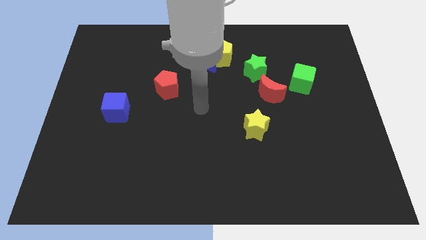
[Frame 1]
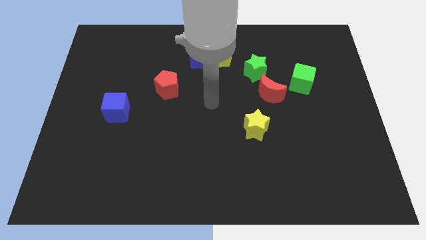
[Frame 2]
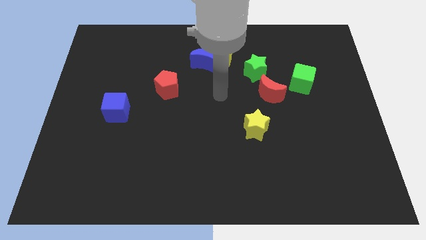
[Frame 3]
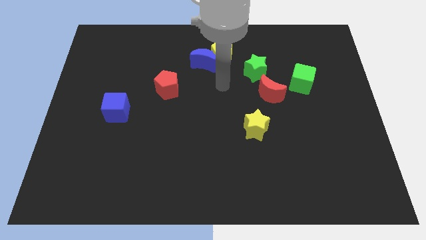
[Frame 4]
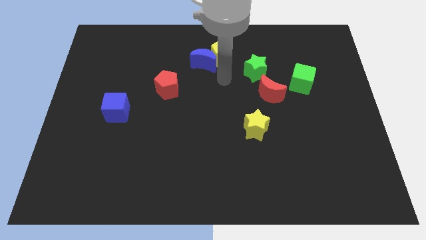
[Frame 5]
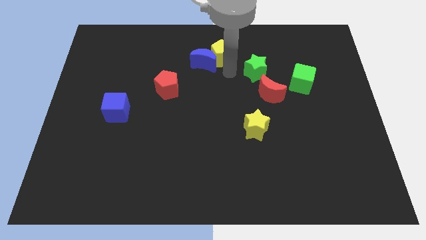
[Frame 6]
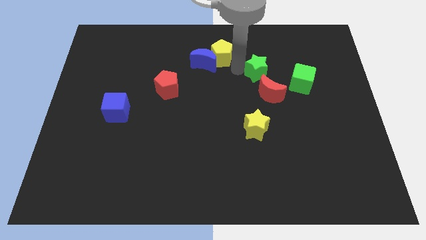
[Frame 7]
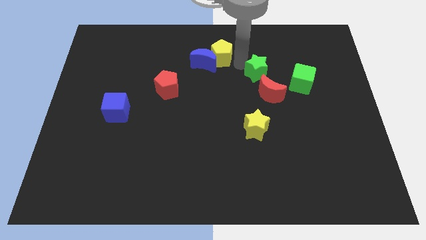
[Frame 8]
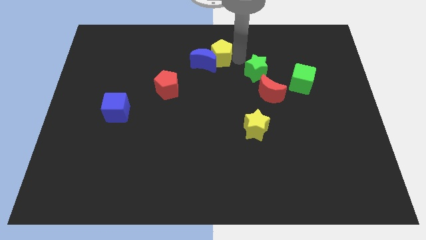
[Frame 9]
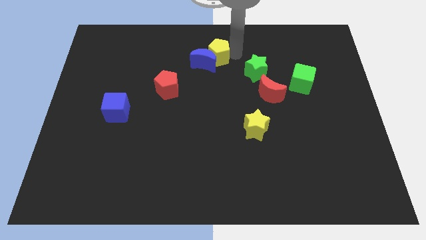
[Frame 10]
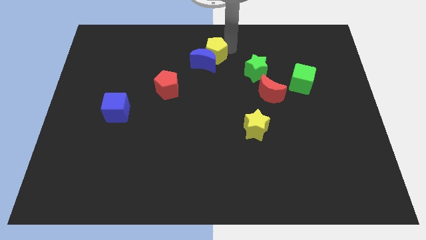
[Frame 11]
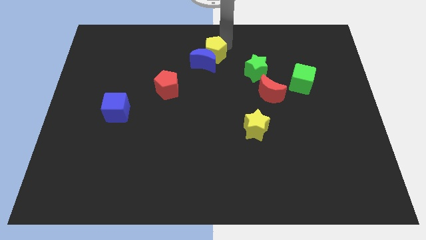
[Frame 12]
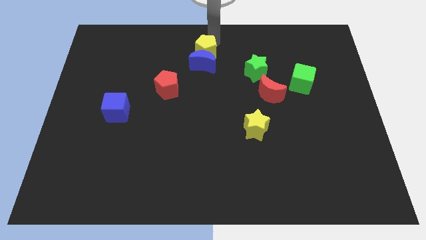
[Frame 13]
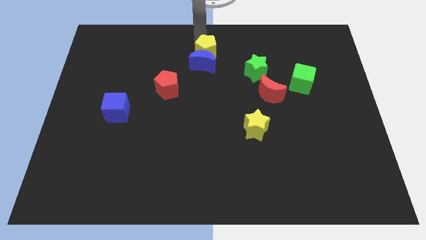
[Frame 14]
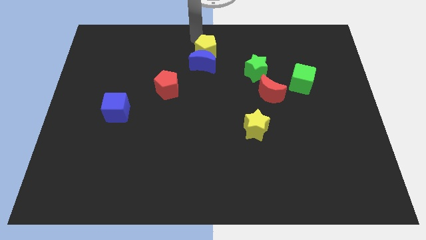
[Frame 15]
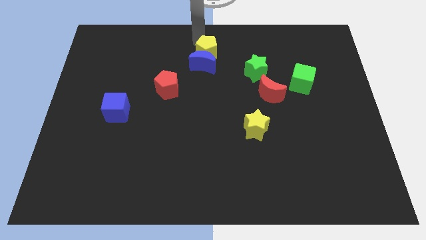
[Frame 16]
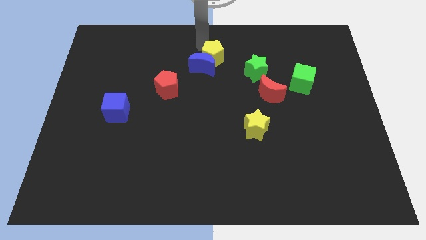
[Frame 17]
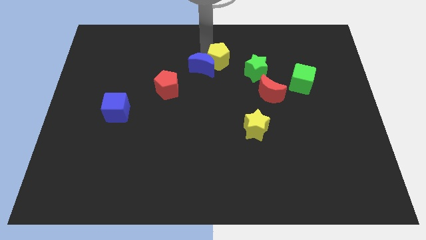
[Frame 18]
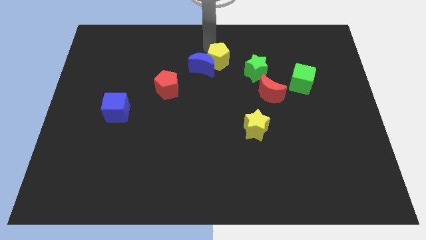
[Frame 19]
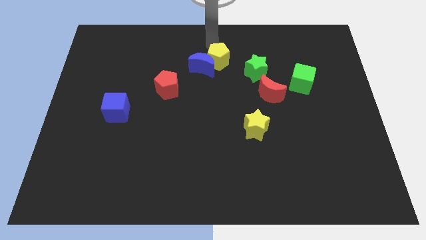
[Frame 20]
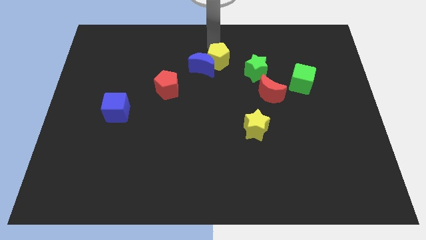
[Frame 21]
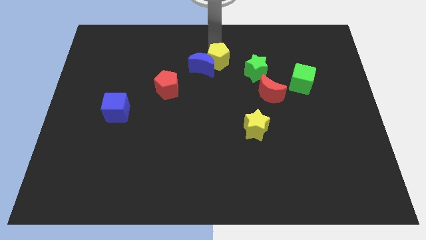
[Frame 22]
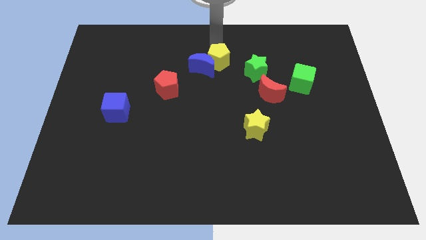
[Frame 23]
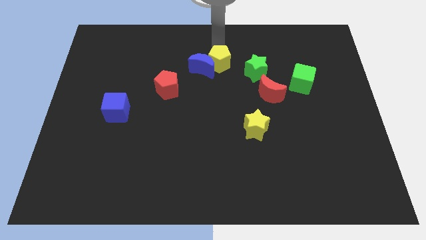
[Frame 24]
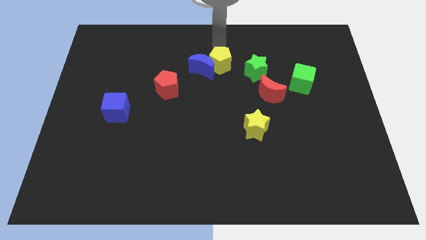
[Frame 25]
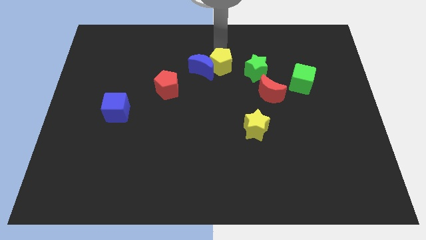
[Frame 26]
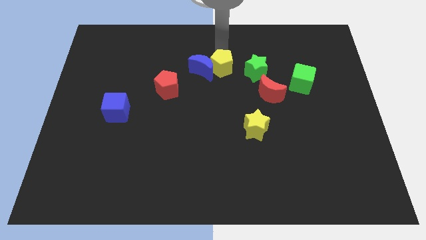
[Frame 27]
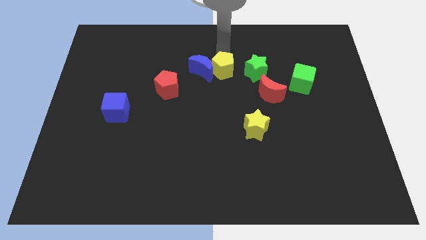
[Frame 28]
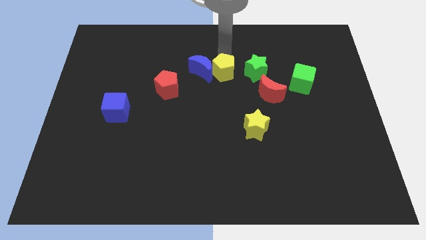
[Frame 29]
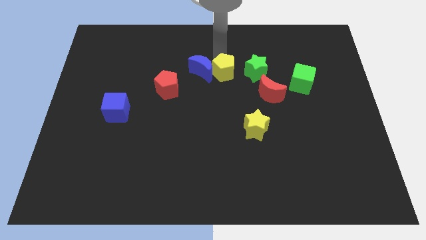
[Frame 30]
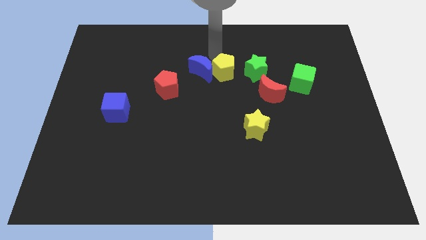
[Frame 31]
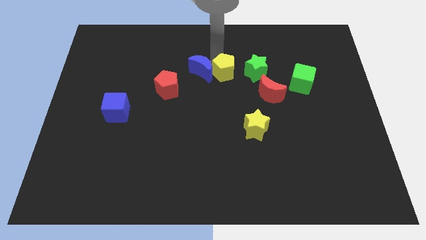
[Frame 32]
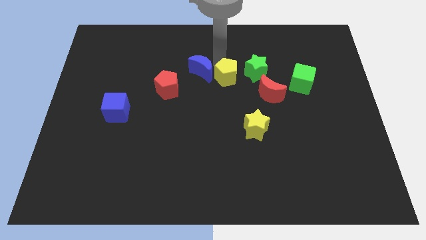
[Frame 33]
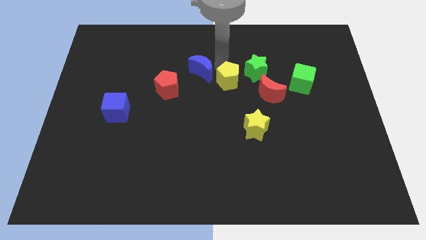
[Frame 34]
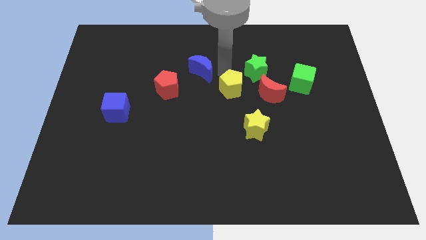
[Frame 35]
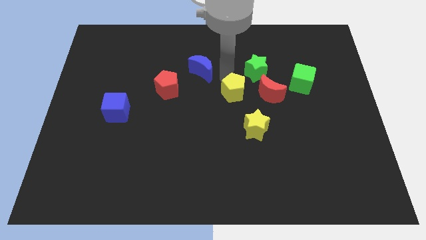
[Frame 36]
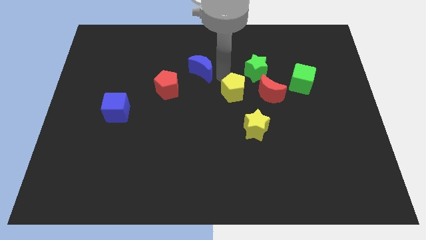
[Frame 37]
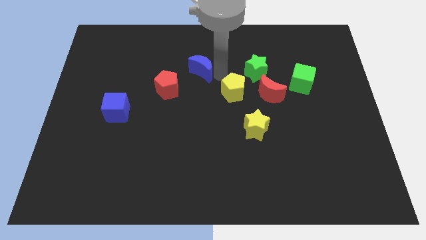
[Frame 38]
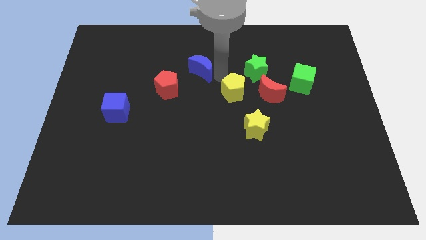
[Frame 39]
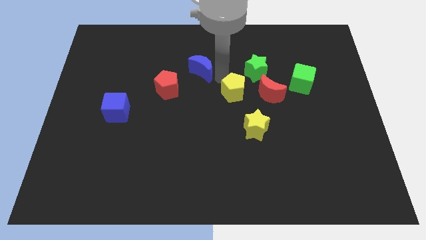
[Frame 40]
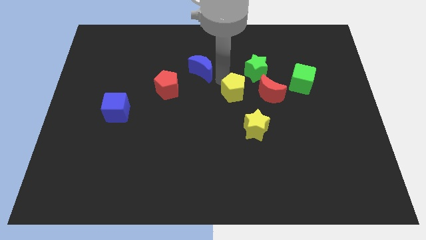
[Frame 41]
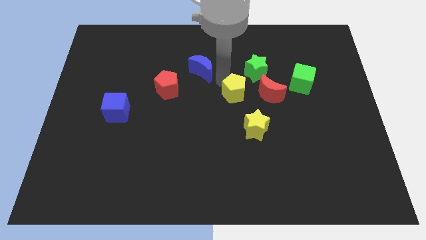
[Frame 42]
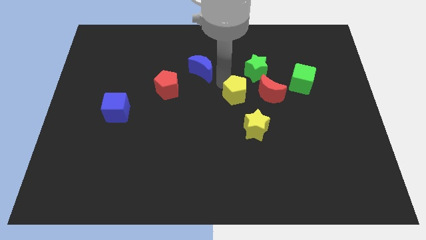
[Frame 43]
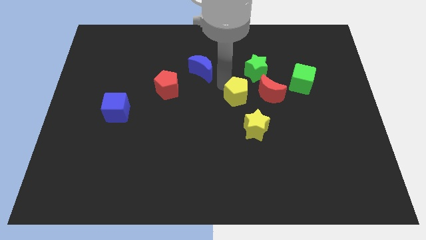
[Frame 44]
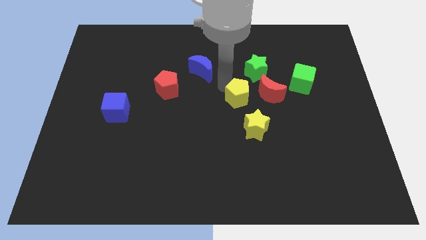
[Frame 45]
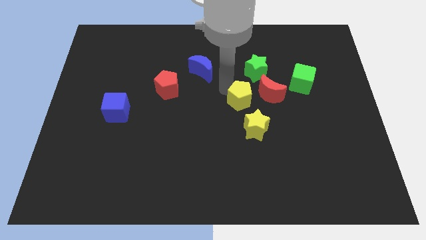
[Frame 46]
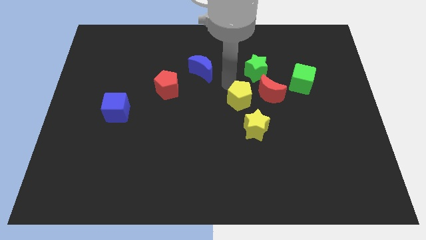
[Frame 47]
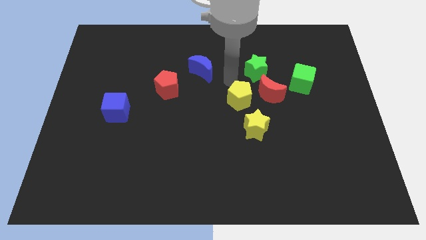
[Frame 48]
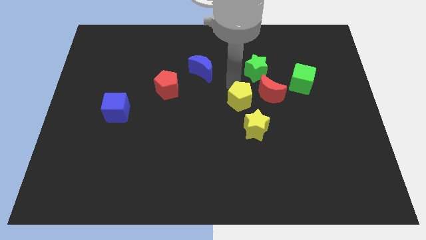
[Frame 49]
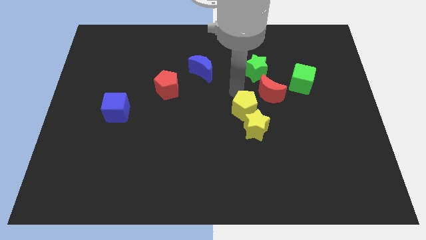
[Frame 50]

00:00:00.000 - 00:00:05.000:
put the yellow pentagon to the yellow star

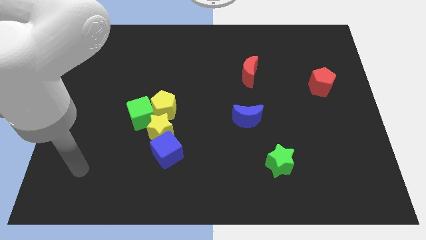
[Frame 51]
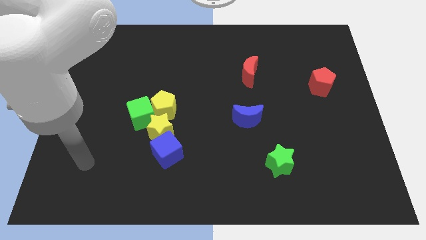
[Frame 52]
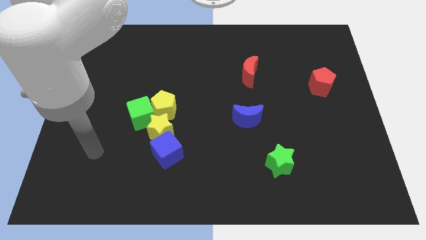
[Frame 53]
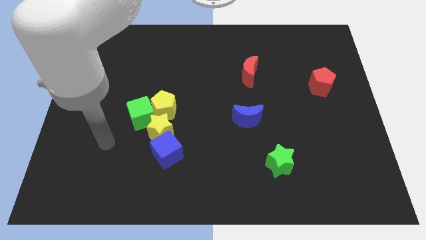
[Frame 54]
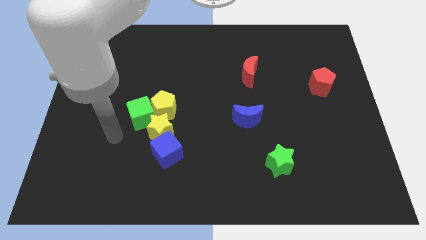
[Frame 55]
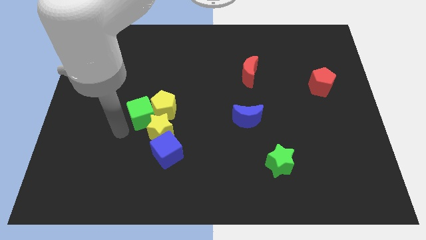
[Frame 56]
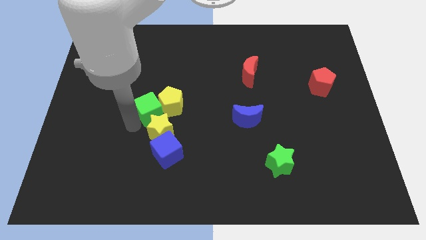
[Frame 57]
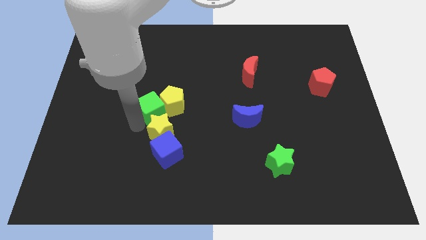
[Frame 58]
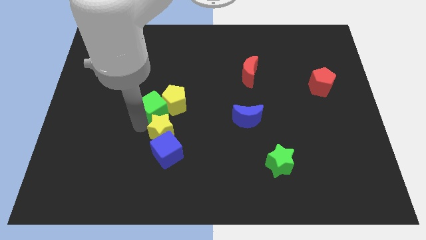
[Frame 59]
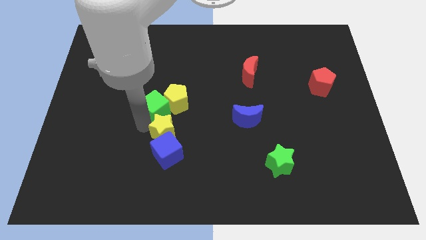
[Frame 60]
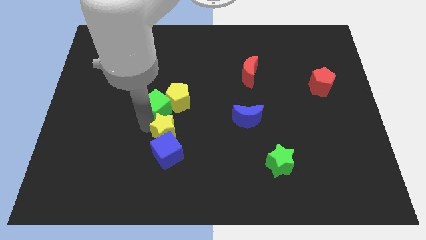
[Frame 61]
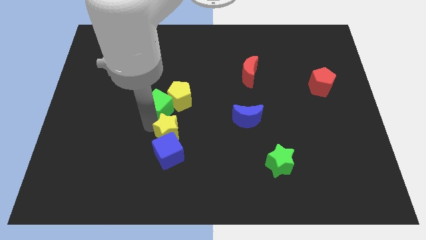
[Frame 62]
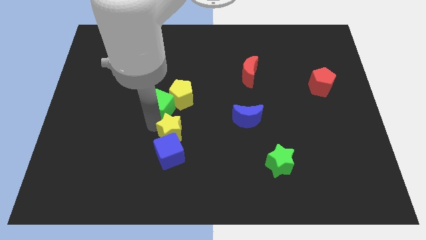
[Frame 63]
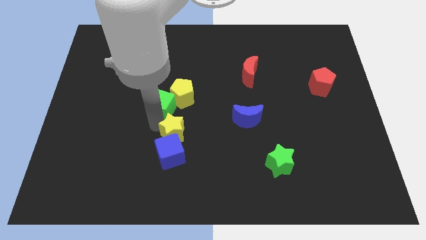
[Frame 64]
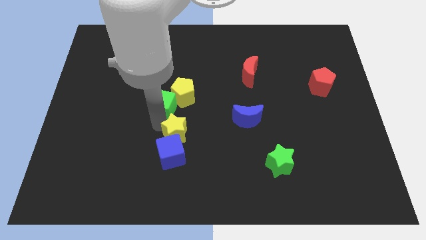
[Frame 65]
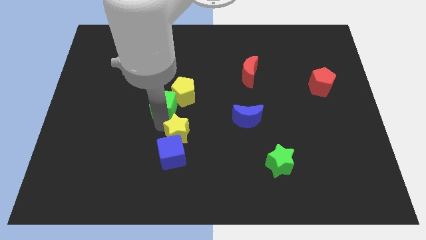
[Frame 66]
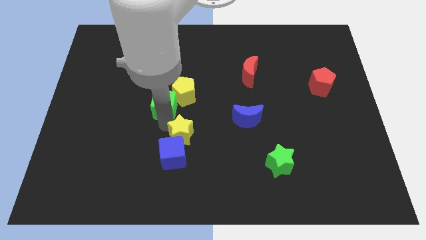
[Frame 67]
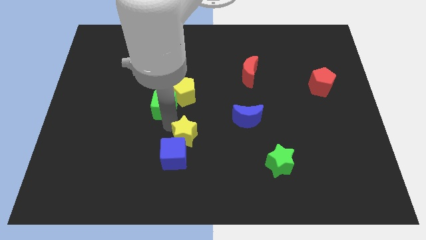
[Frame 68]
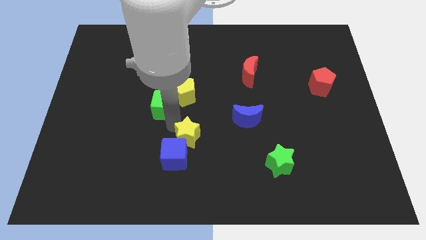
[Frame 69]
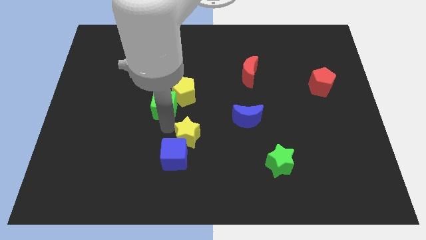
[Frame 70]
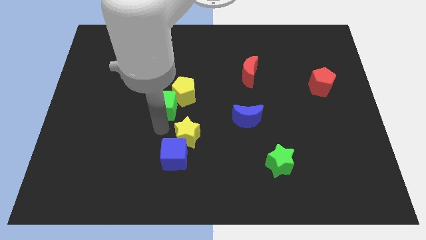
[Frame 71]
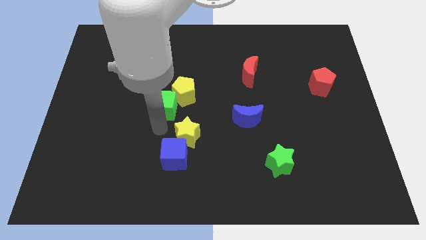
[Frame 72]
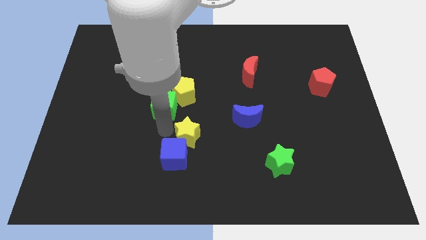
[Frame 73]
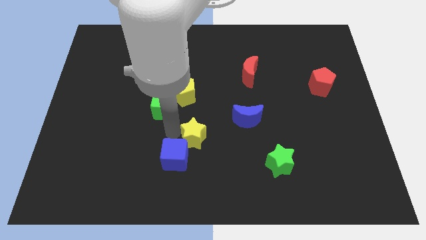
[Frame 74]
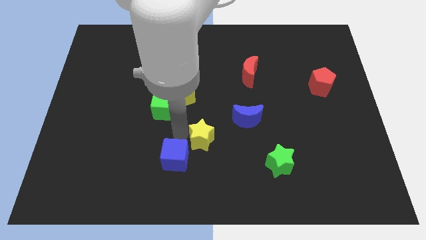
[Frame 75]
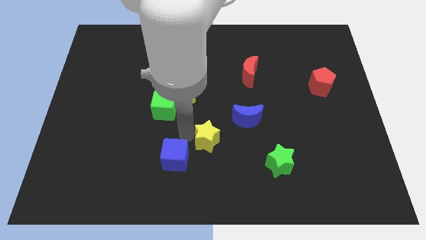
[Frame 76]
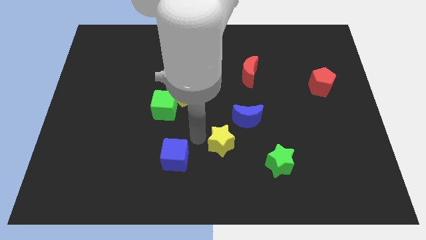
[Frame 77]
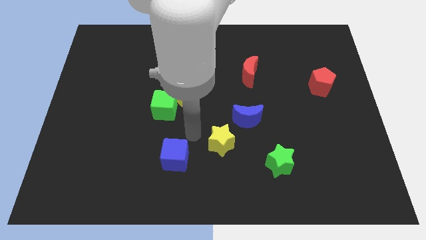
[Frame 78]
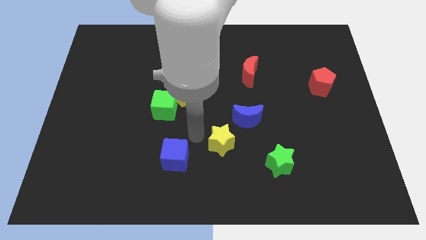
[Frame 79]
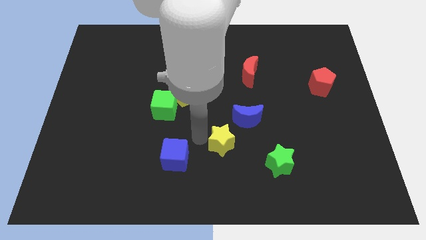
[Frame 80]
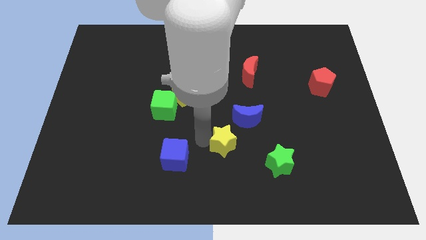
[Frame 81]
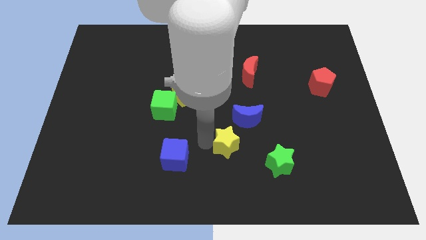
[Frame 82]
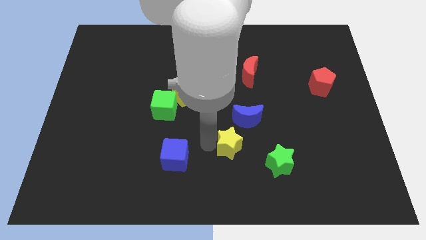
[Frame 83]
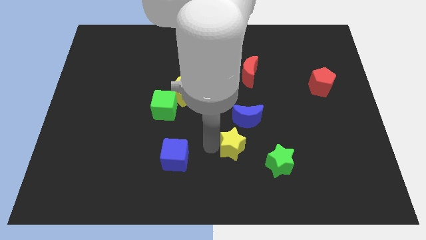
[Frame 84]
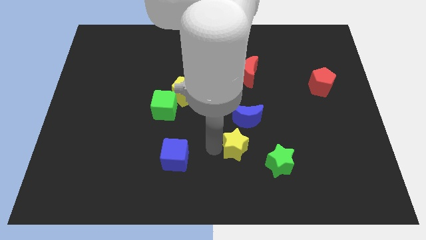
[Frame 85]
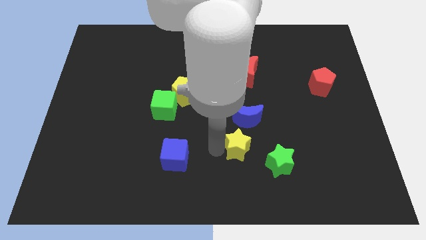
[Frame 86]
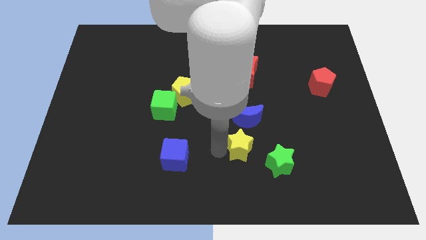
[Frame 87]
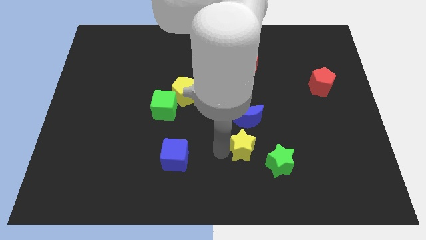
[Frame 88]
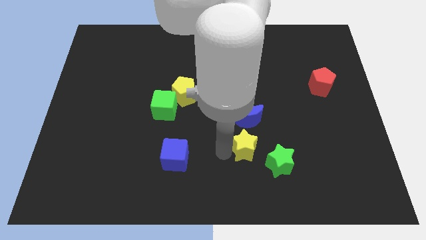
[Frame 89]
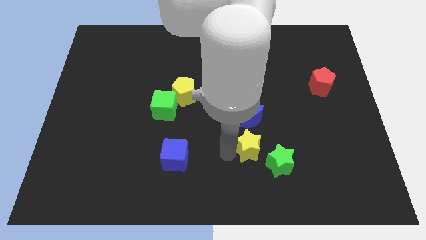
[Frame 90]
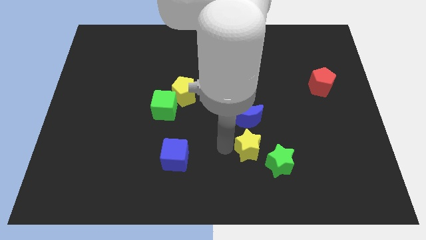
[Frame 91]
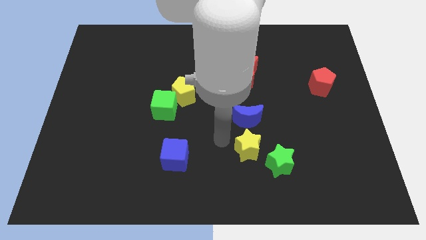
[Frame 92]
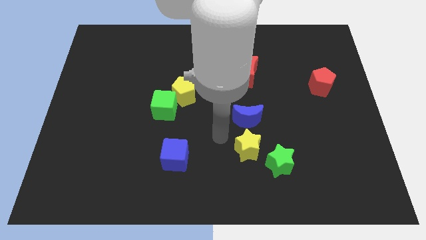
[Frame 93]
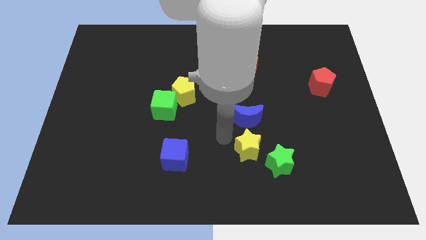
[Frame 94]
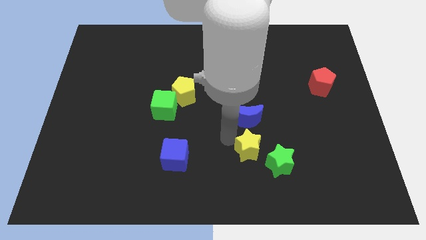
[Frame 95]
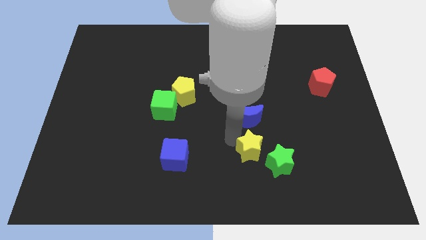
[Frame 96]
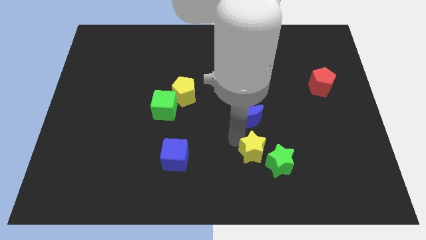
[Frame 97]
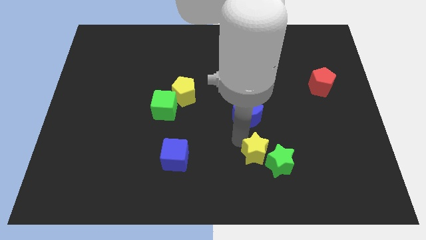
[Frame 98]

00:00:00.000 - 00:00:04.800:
slide the yellow star to the green star
